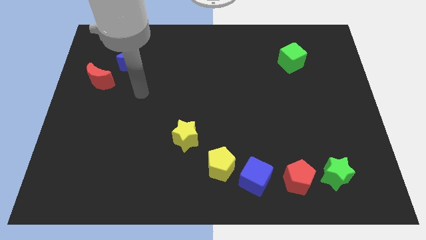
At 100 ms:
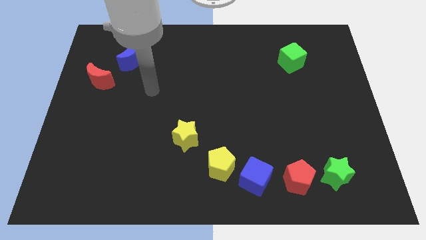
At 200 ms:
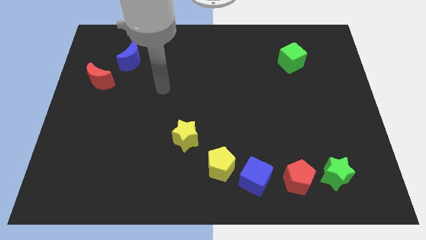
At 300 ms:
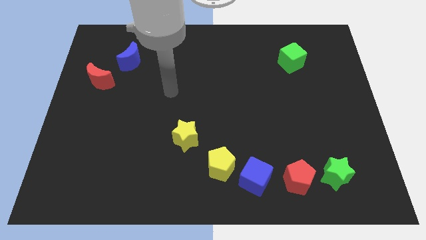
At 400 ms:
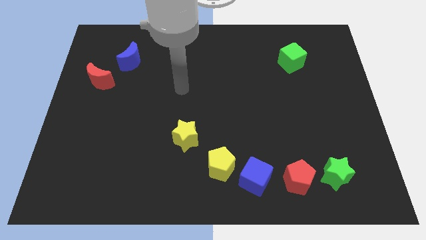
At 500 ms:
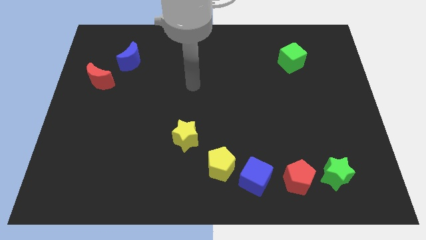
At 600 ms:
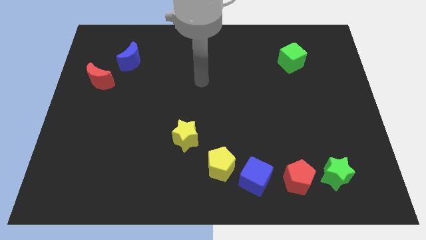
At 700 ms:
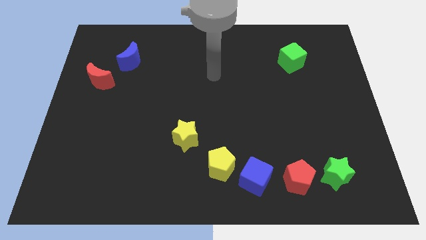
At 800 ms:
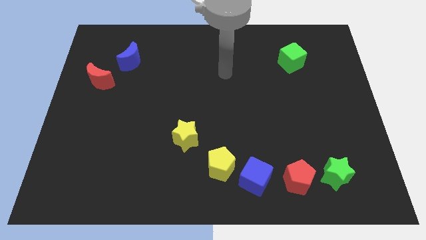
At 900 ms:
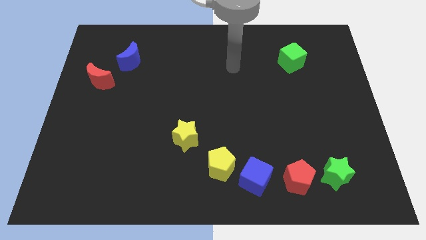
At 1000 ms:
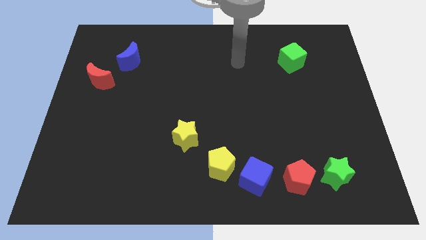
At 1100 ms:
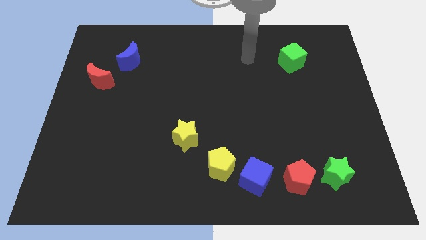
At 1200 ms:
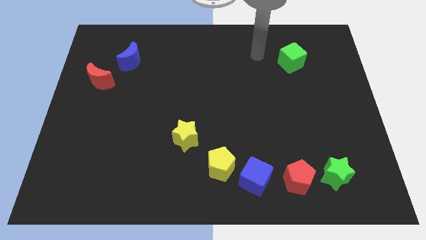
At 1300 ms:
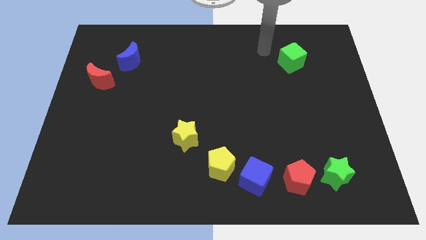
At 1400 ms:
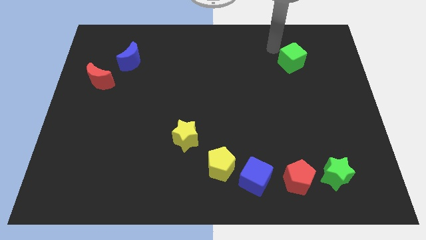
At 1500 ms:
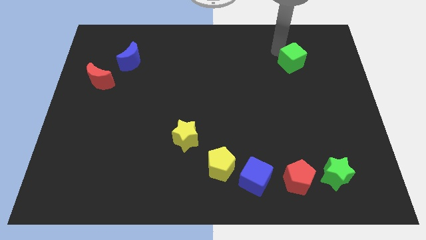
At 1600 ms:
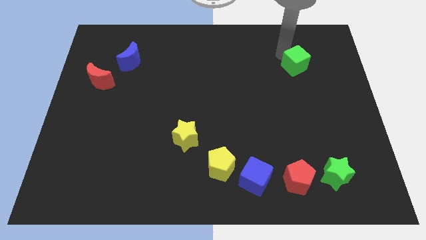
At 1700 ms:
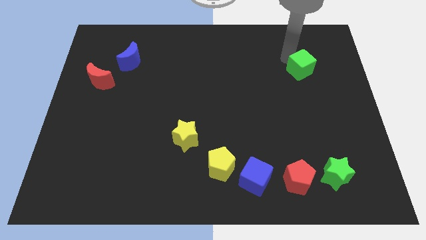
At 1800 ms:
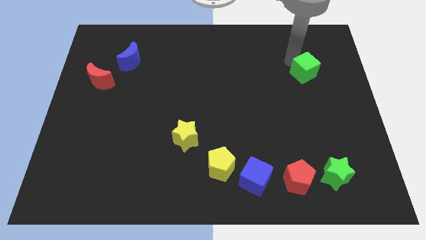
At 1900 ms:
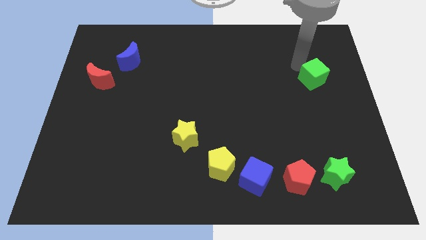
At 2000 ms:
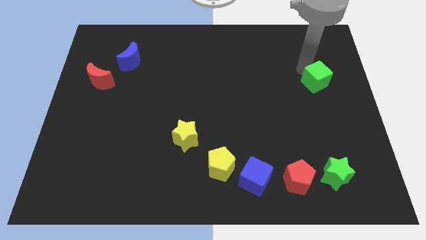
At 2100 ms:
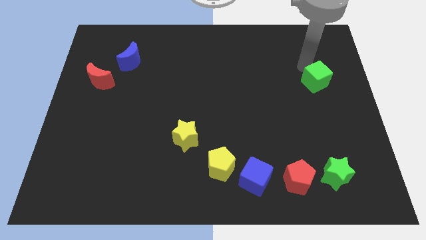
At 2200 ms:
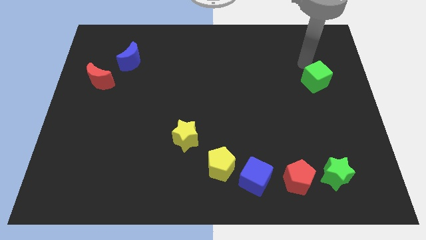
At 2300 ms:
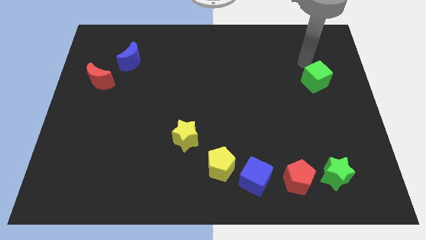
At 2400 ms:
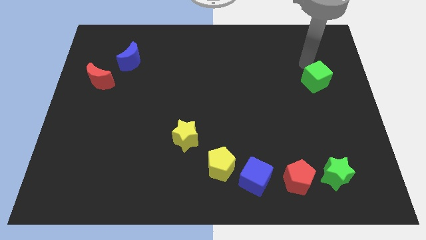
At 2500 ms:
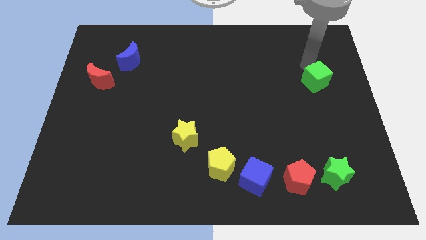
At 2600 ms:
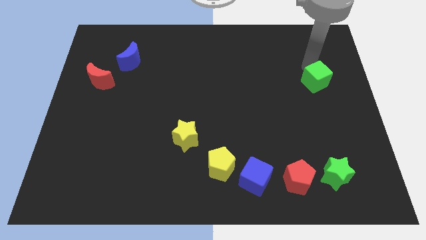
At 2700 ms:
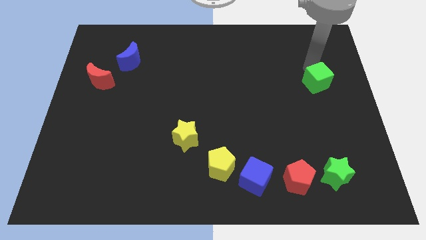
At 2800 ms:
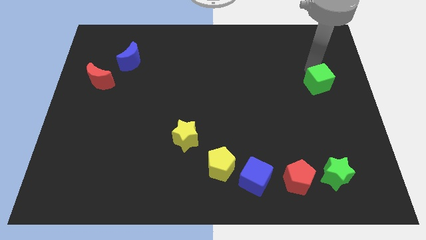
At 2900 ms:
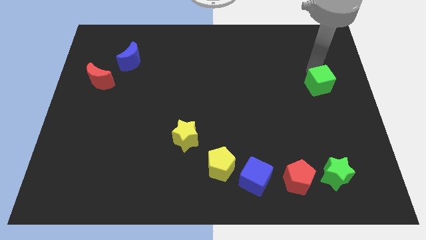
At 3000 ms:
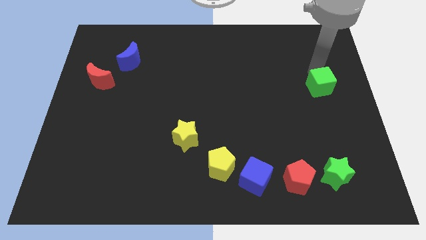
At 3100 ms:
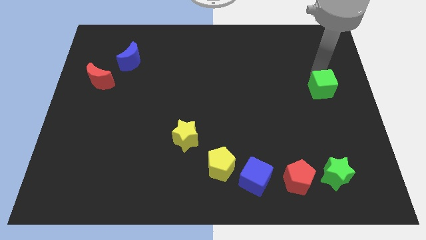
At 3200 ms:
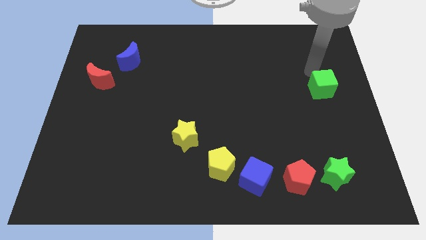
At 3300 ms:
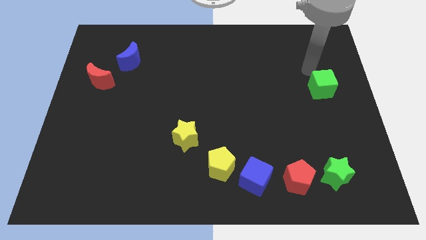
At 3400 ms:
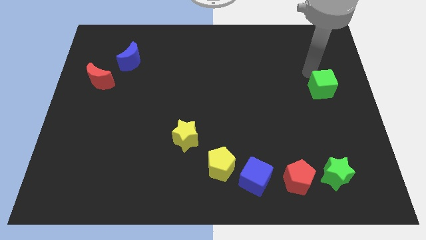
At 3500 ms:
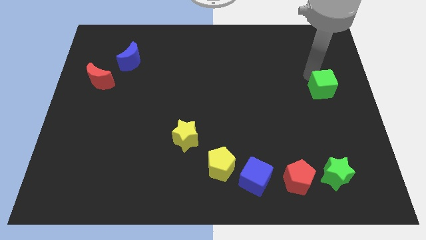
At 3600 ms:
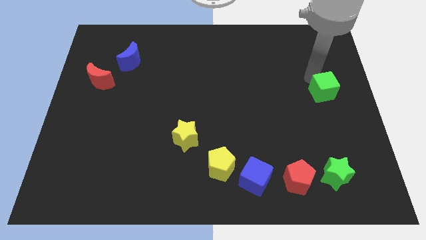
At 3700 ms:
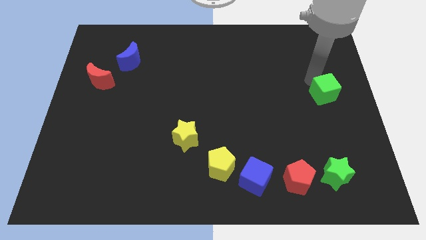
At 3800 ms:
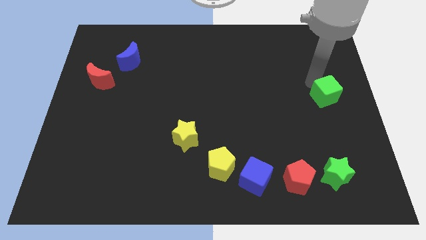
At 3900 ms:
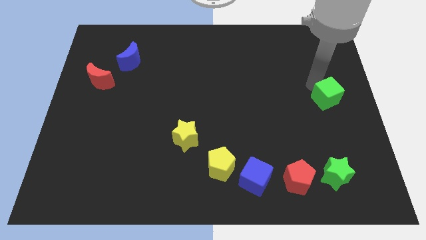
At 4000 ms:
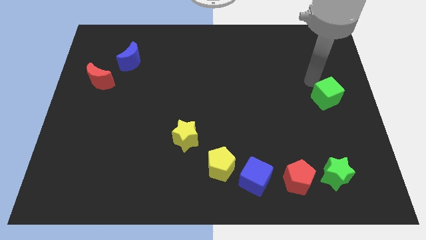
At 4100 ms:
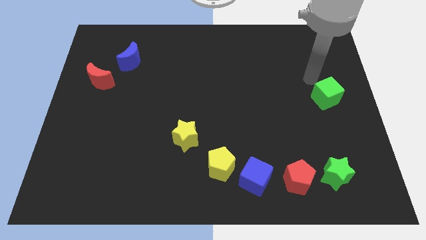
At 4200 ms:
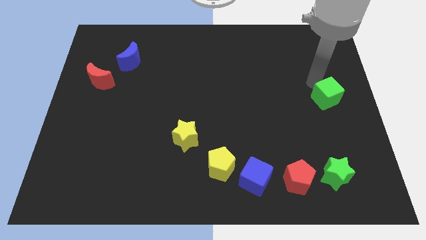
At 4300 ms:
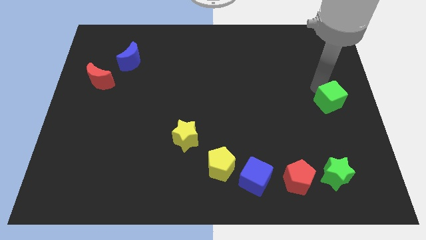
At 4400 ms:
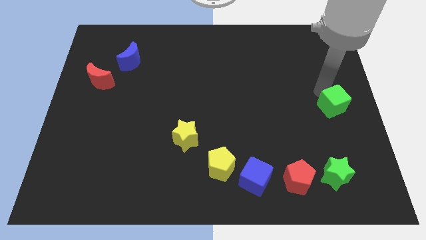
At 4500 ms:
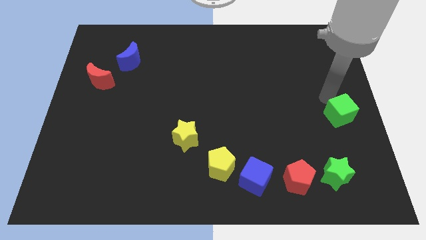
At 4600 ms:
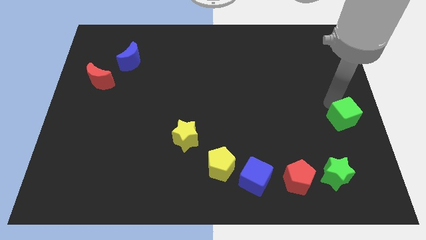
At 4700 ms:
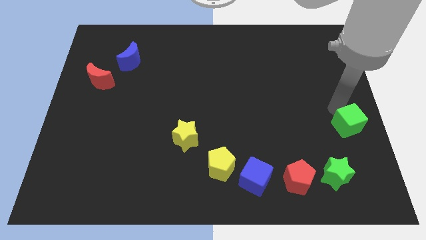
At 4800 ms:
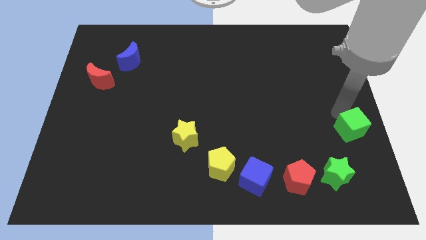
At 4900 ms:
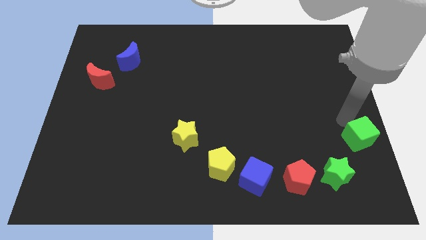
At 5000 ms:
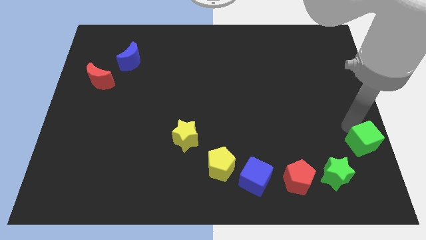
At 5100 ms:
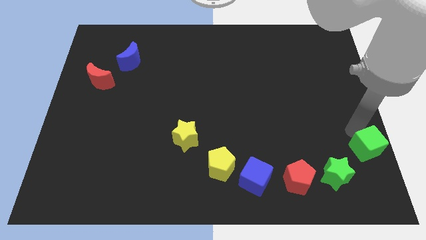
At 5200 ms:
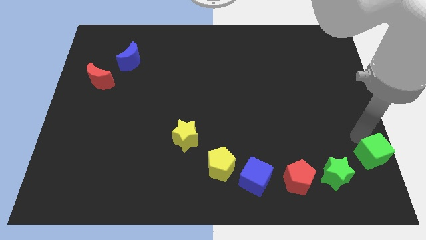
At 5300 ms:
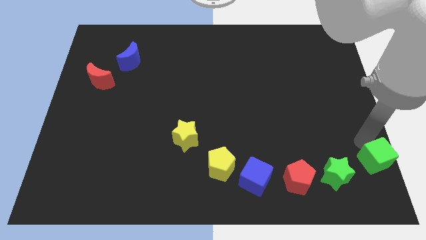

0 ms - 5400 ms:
put the green cube to the bottom right of the board

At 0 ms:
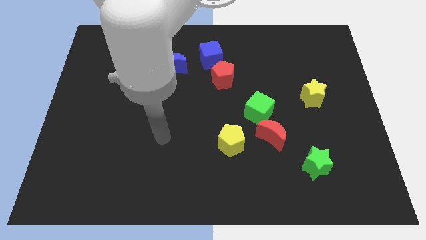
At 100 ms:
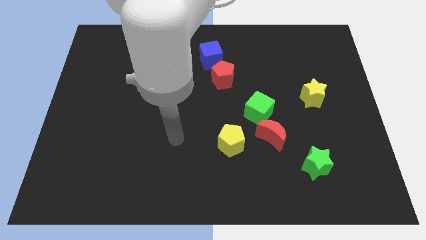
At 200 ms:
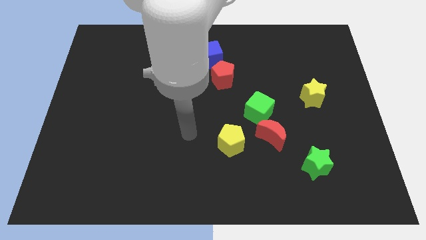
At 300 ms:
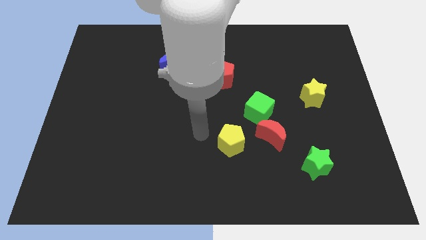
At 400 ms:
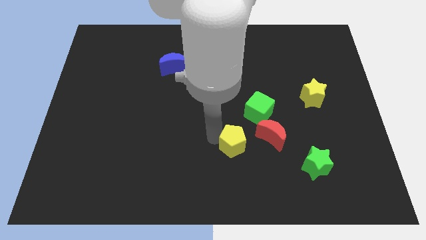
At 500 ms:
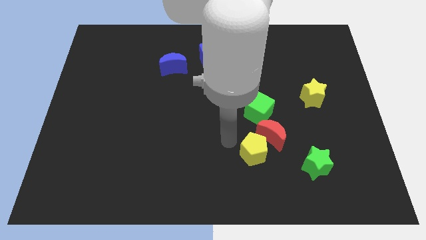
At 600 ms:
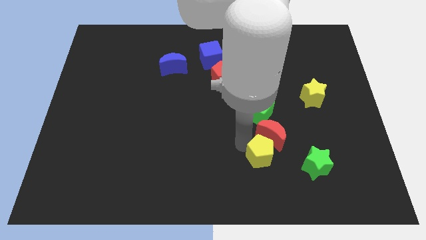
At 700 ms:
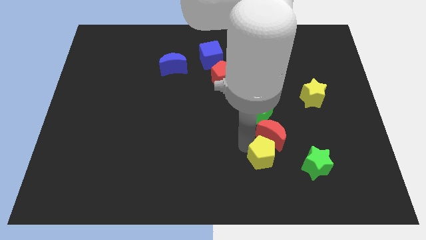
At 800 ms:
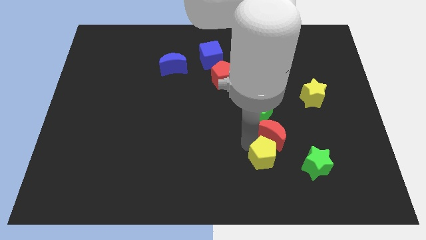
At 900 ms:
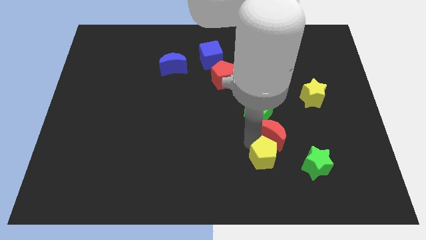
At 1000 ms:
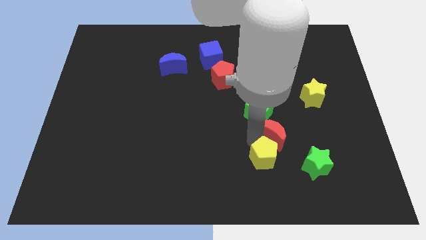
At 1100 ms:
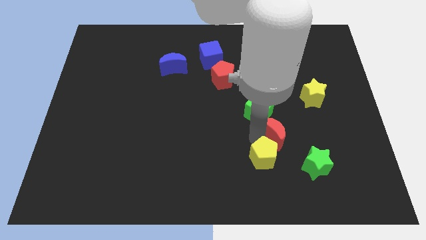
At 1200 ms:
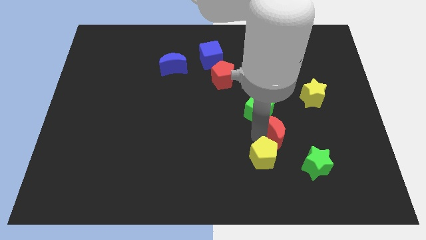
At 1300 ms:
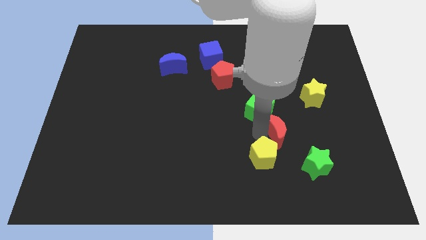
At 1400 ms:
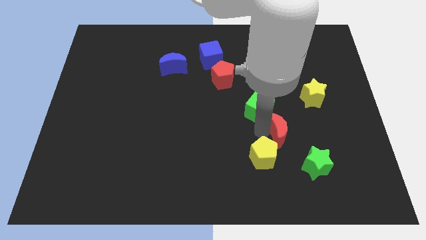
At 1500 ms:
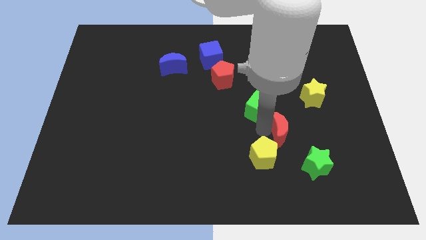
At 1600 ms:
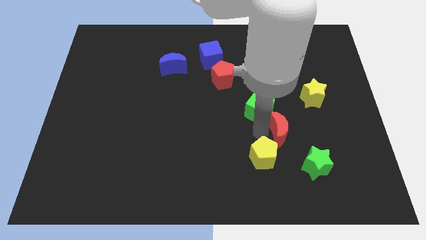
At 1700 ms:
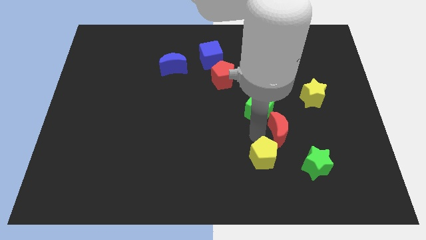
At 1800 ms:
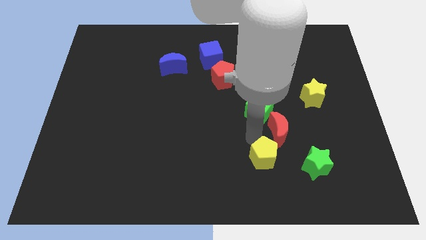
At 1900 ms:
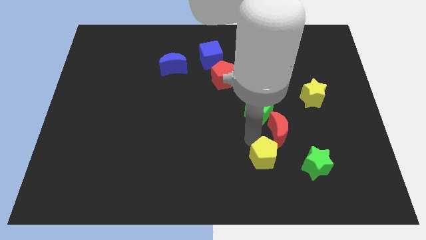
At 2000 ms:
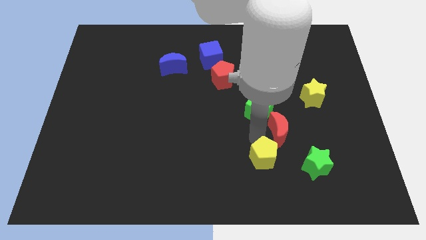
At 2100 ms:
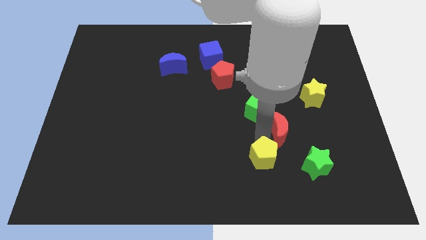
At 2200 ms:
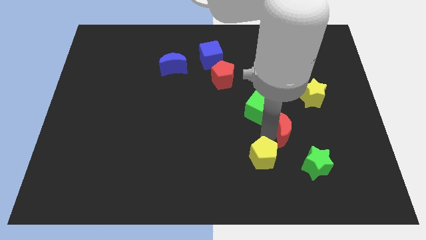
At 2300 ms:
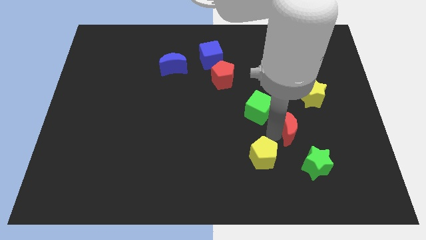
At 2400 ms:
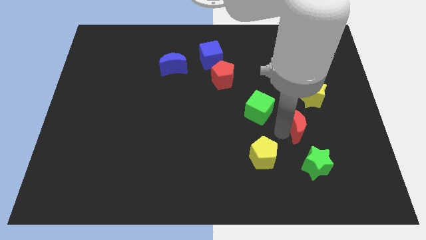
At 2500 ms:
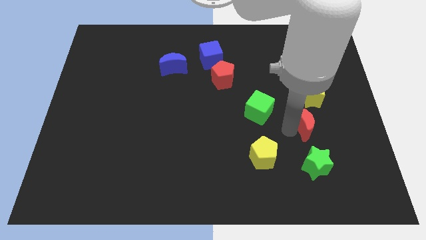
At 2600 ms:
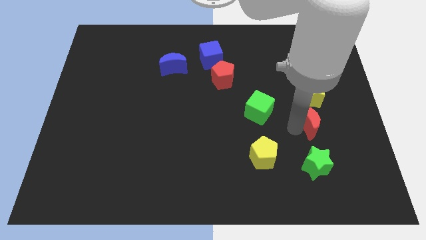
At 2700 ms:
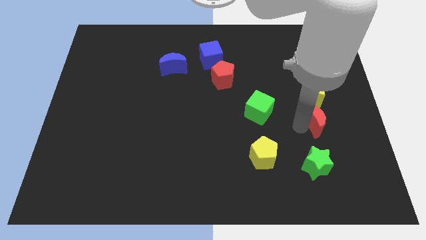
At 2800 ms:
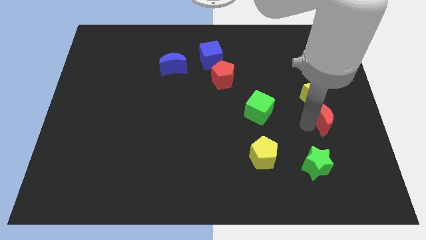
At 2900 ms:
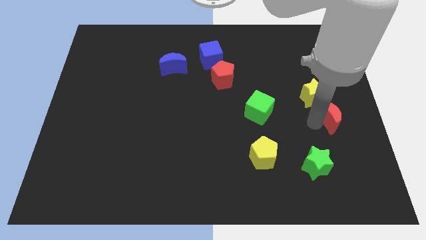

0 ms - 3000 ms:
put the red moon to the right side
